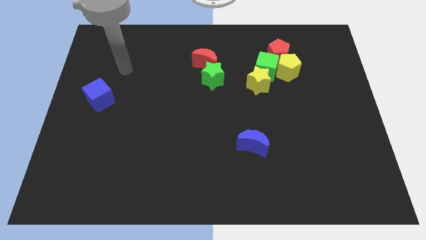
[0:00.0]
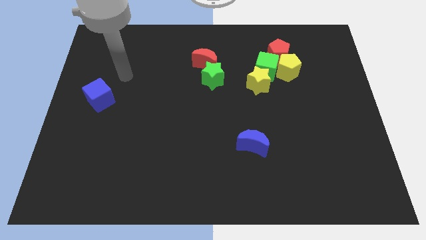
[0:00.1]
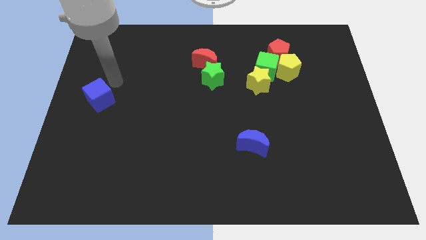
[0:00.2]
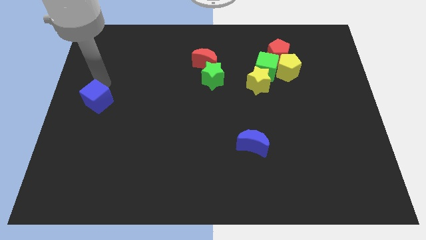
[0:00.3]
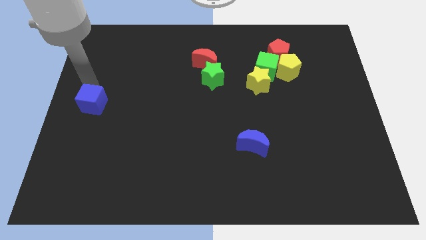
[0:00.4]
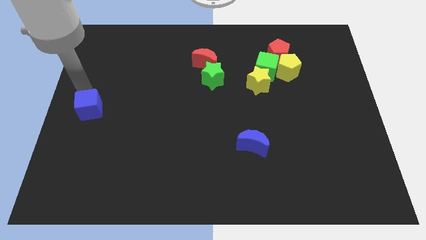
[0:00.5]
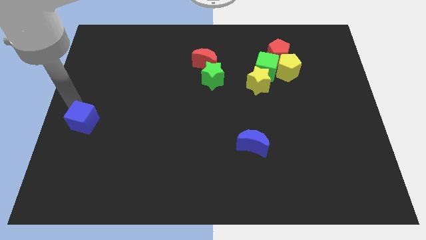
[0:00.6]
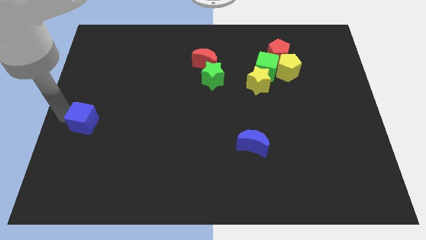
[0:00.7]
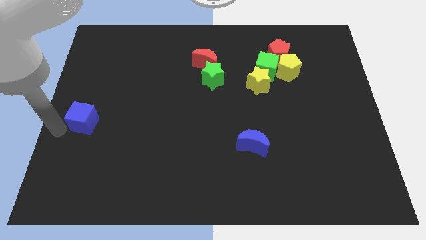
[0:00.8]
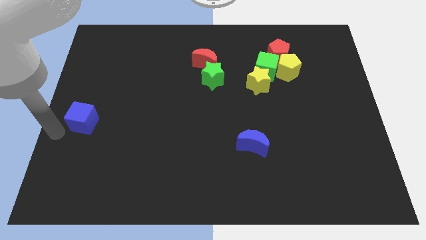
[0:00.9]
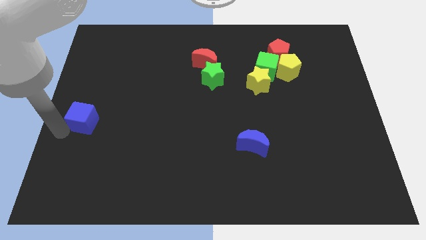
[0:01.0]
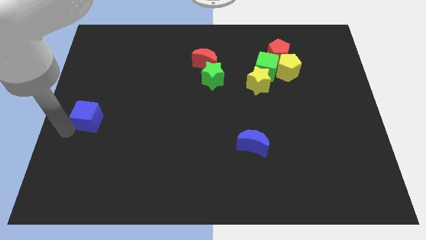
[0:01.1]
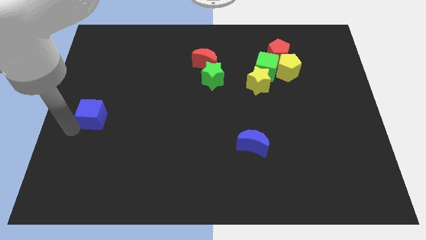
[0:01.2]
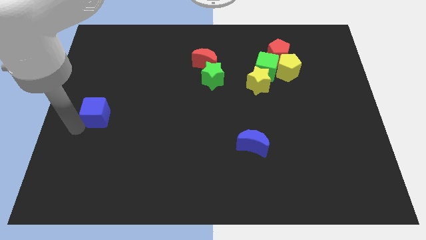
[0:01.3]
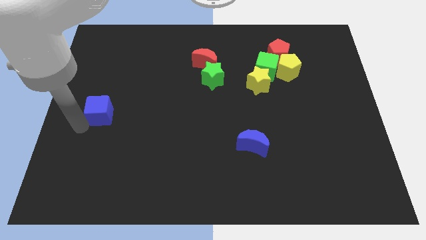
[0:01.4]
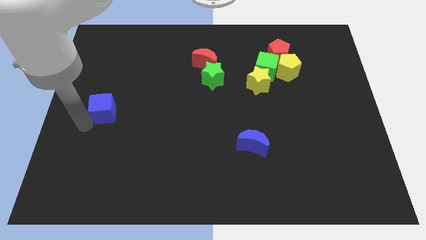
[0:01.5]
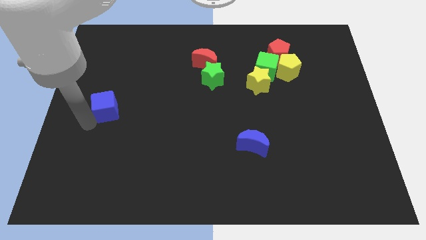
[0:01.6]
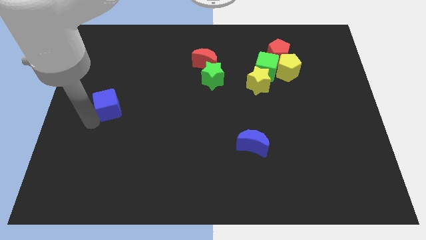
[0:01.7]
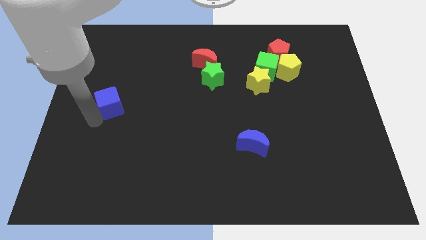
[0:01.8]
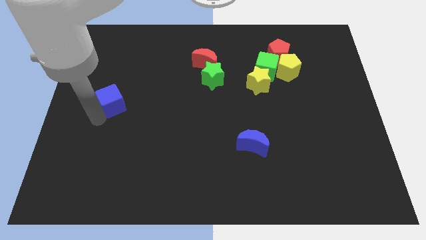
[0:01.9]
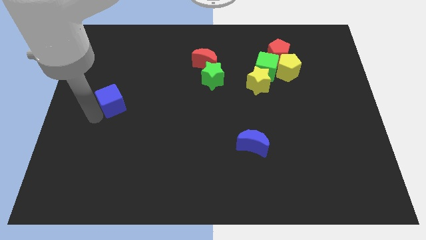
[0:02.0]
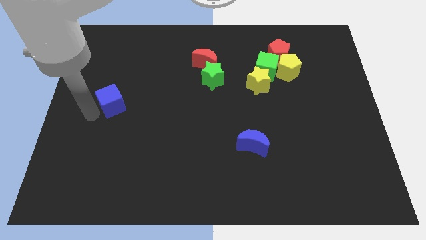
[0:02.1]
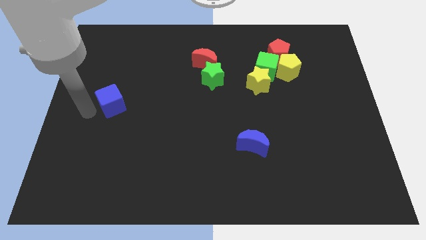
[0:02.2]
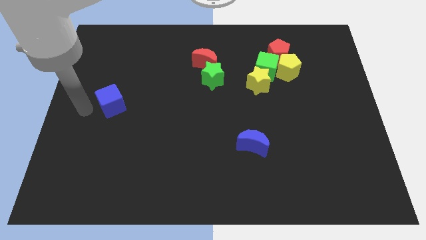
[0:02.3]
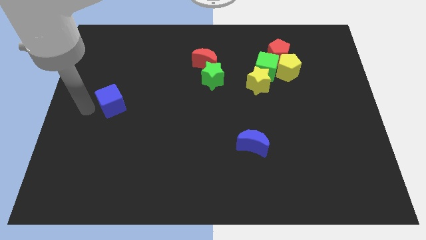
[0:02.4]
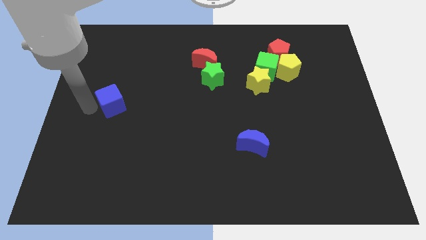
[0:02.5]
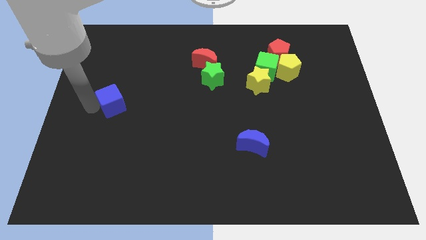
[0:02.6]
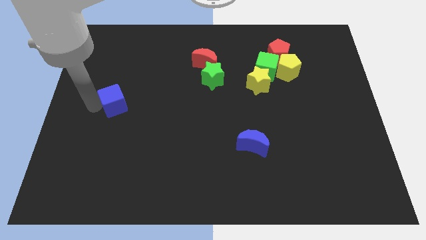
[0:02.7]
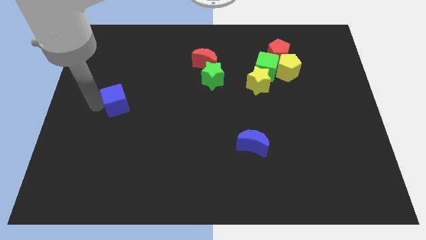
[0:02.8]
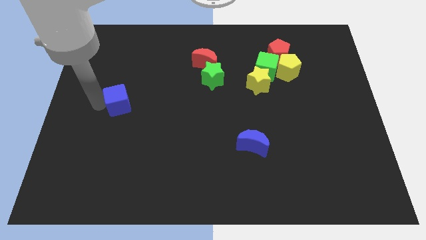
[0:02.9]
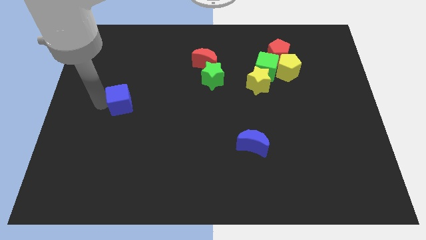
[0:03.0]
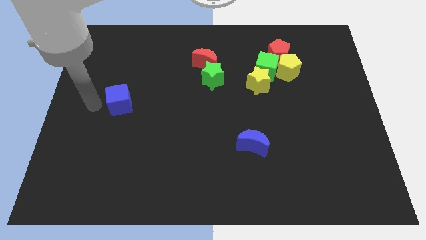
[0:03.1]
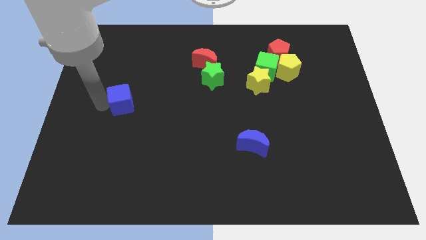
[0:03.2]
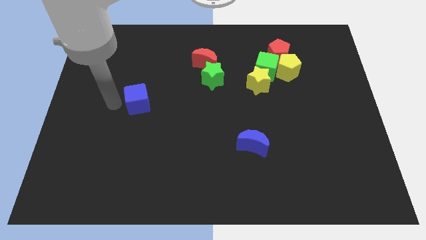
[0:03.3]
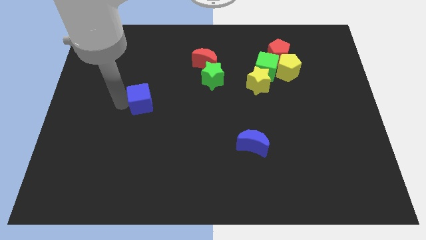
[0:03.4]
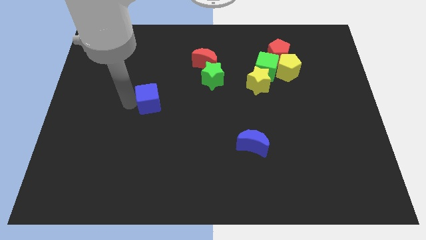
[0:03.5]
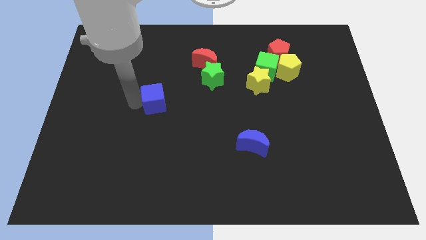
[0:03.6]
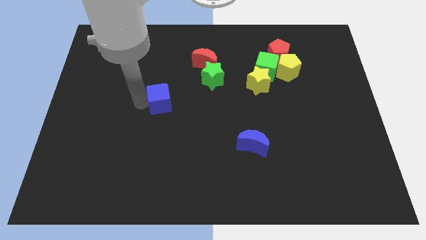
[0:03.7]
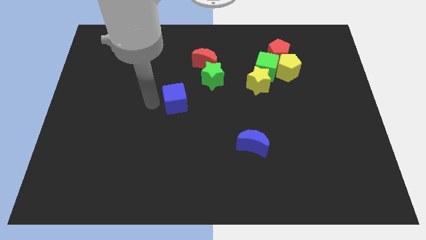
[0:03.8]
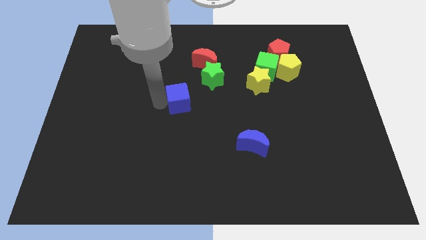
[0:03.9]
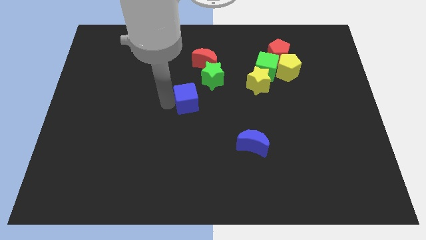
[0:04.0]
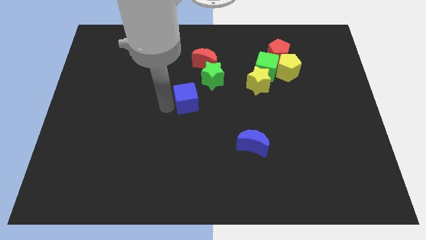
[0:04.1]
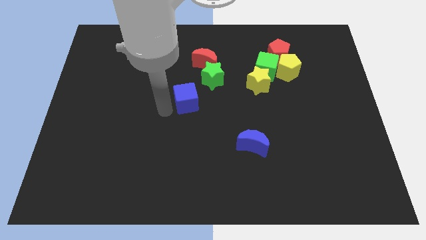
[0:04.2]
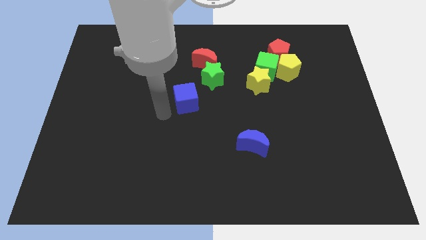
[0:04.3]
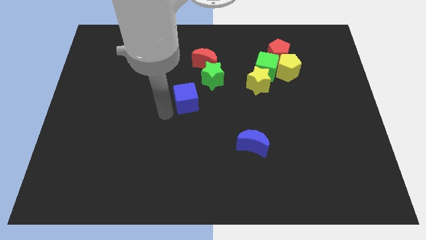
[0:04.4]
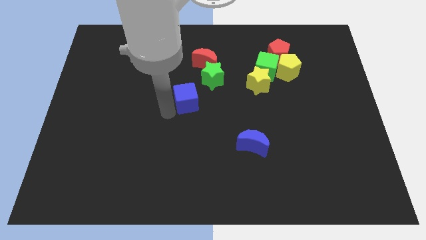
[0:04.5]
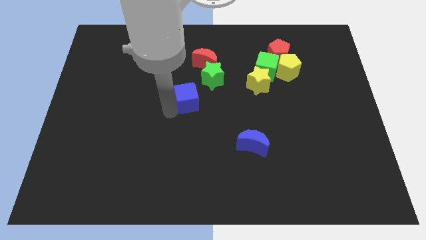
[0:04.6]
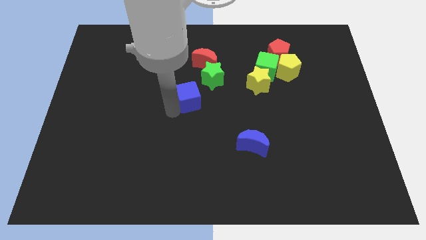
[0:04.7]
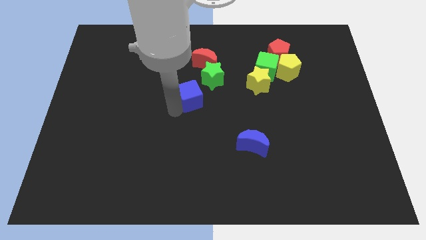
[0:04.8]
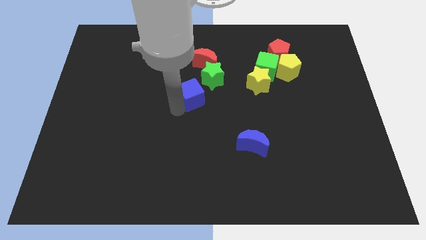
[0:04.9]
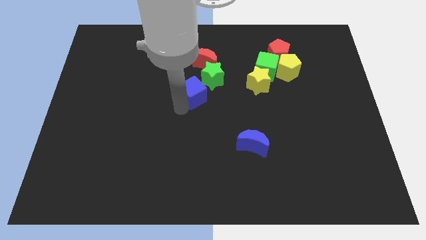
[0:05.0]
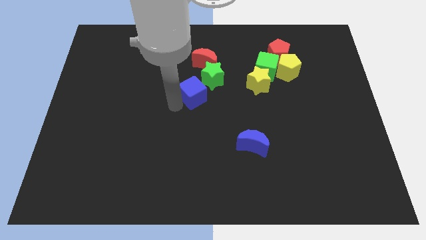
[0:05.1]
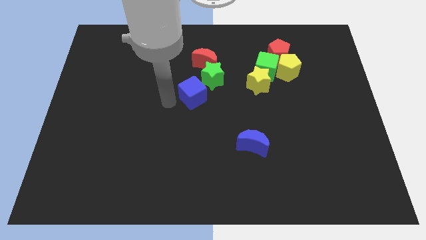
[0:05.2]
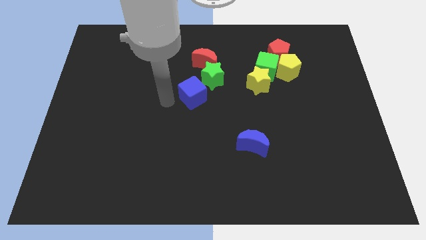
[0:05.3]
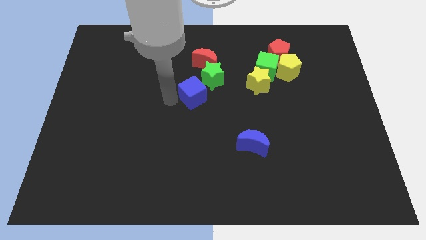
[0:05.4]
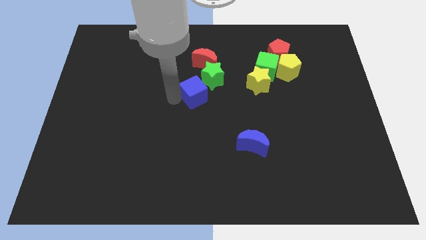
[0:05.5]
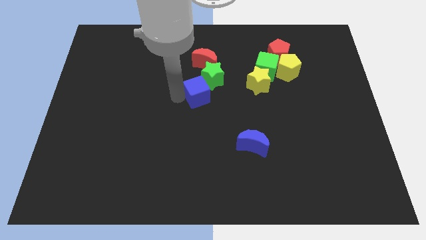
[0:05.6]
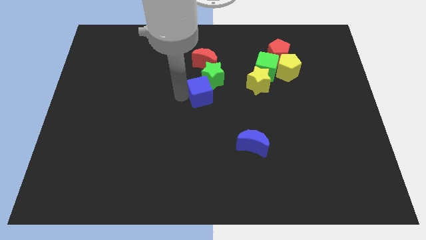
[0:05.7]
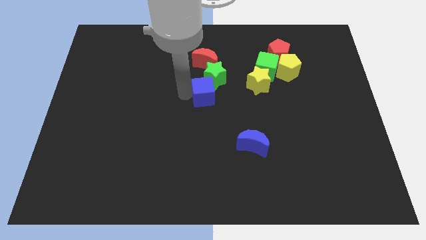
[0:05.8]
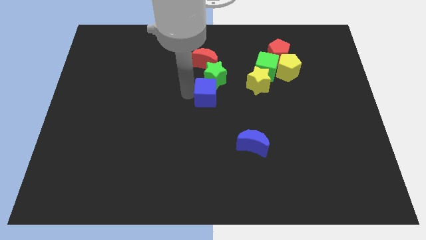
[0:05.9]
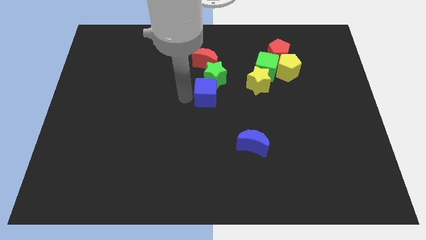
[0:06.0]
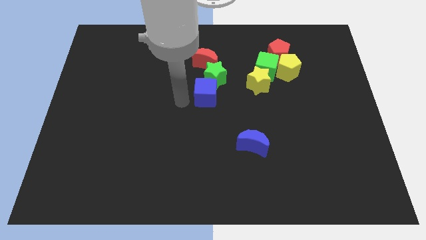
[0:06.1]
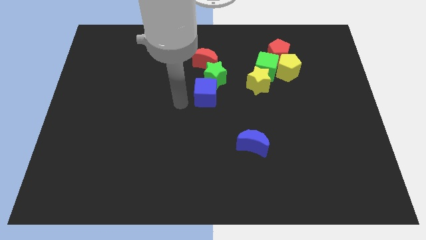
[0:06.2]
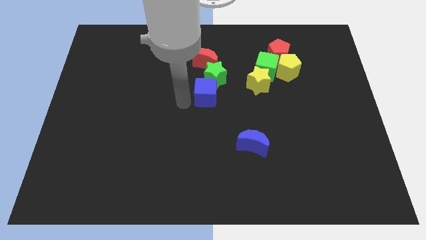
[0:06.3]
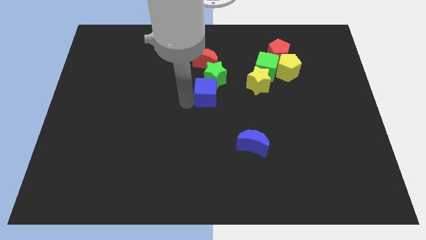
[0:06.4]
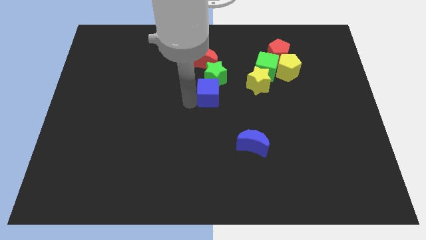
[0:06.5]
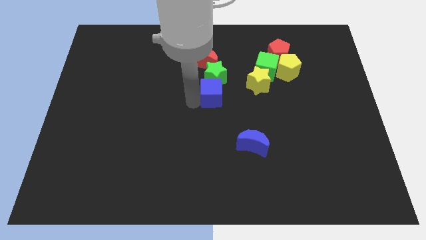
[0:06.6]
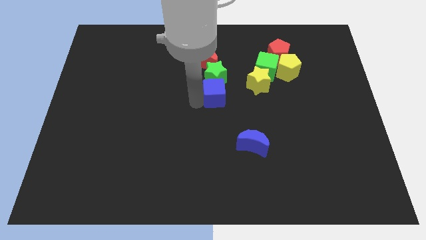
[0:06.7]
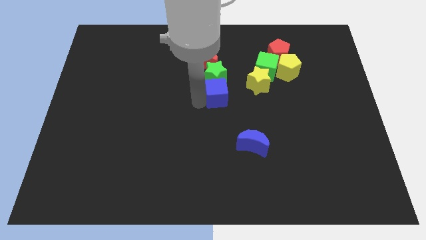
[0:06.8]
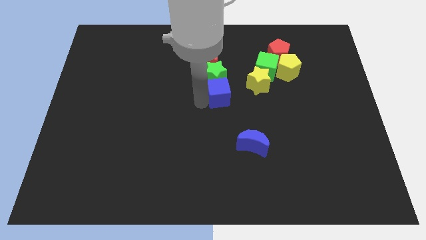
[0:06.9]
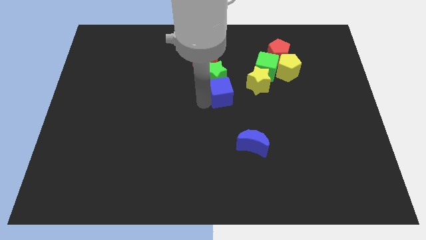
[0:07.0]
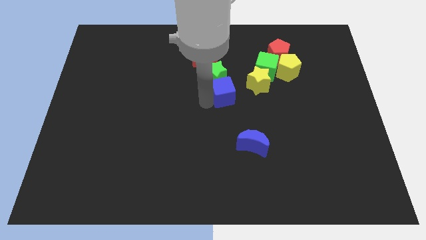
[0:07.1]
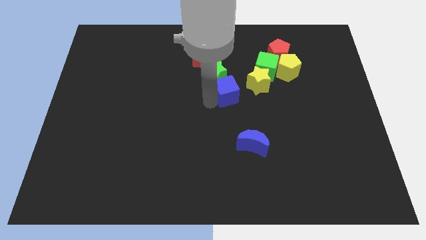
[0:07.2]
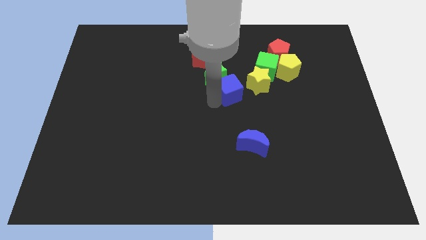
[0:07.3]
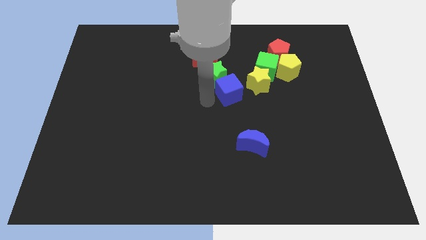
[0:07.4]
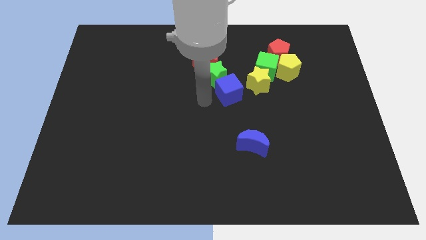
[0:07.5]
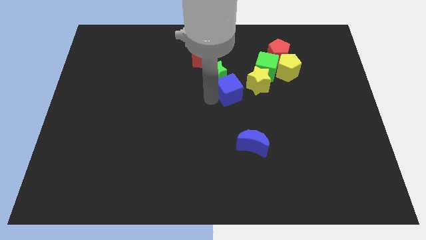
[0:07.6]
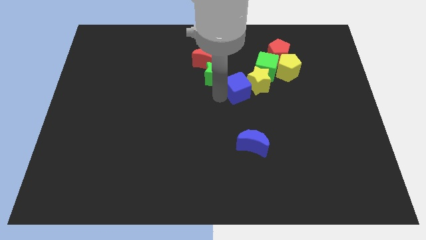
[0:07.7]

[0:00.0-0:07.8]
put the blue cube towards the yellow star
